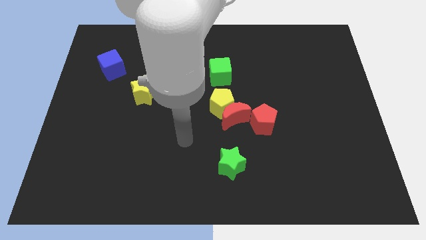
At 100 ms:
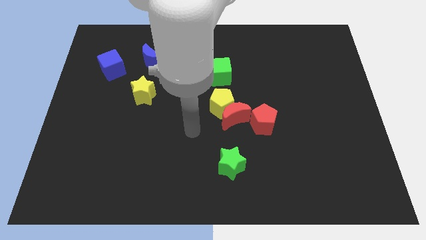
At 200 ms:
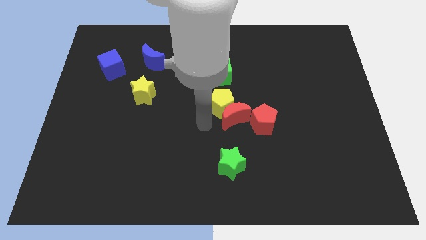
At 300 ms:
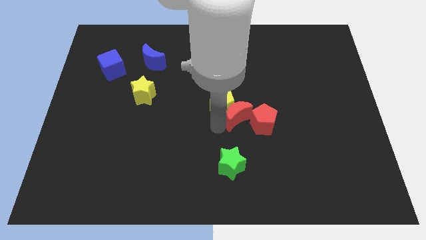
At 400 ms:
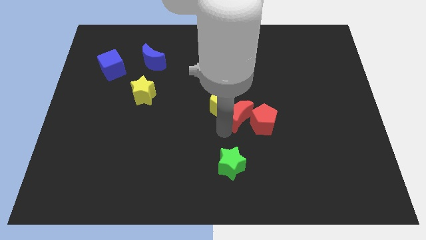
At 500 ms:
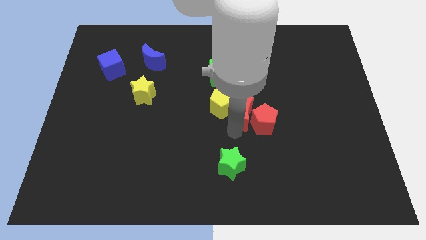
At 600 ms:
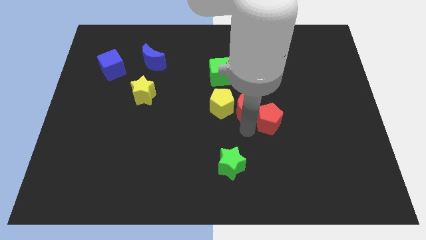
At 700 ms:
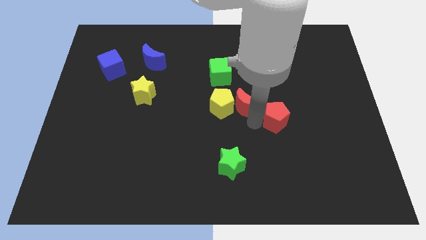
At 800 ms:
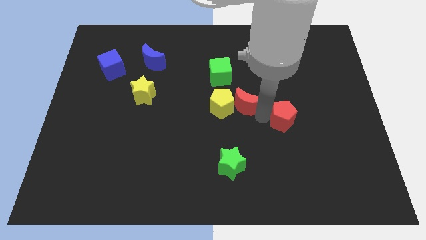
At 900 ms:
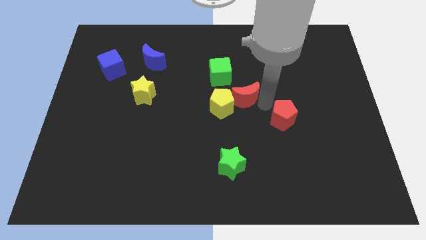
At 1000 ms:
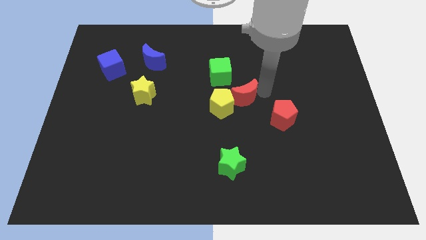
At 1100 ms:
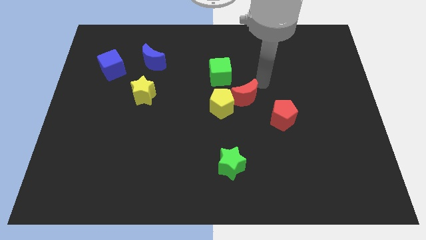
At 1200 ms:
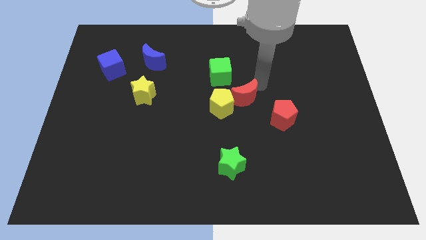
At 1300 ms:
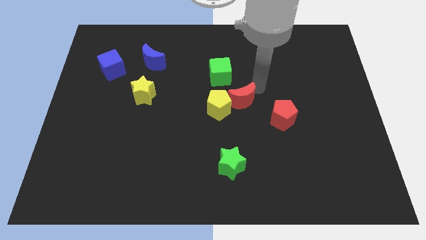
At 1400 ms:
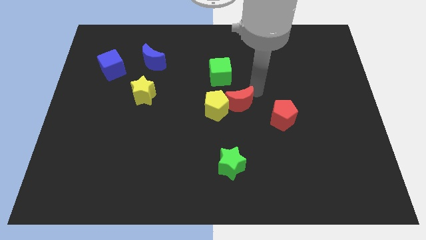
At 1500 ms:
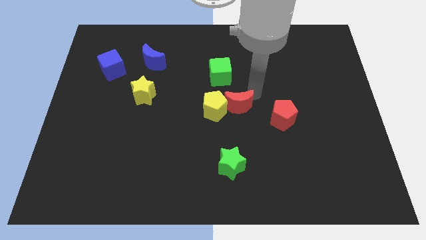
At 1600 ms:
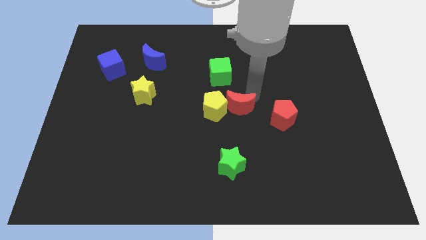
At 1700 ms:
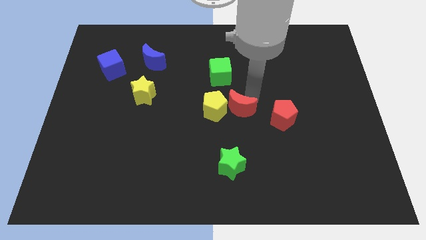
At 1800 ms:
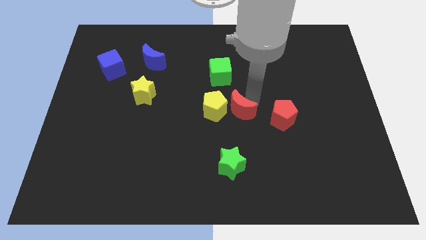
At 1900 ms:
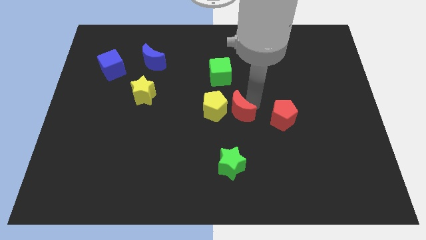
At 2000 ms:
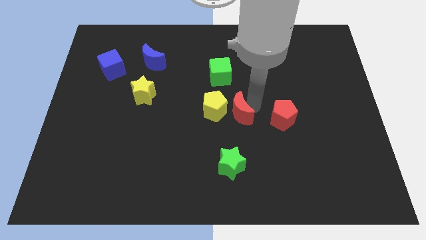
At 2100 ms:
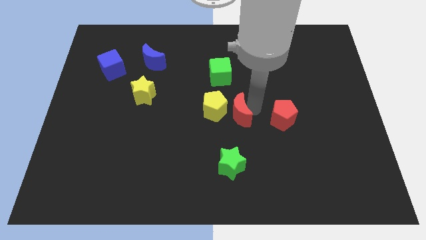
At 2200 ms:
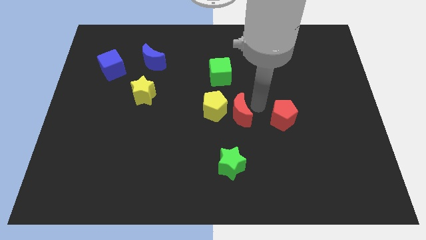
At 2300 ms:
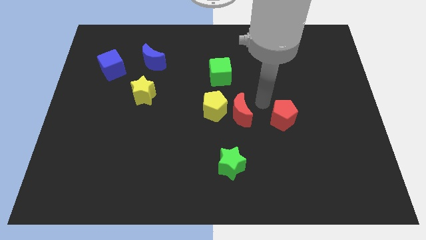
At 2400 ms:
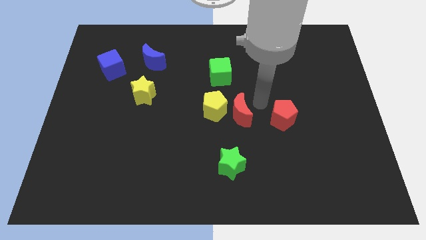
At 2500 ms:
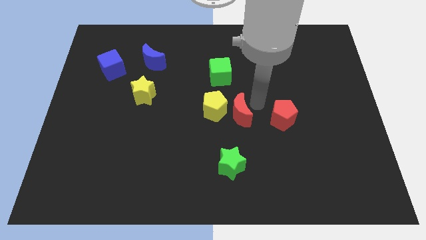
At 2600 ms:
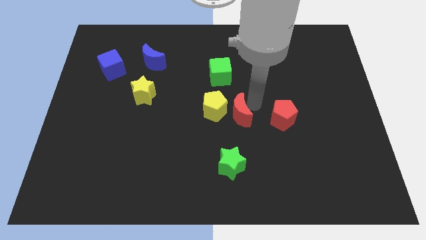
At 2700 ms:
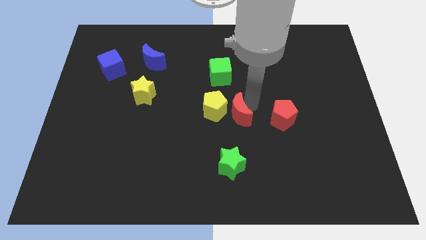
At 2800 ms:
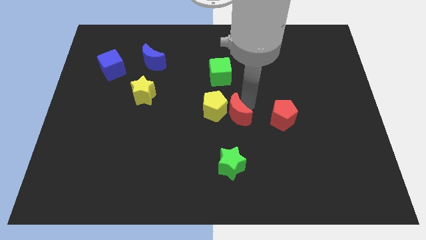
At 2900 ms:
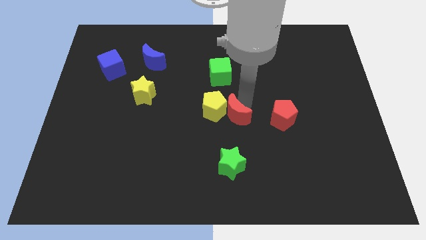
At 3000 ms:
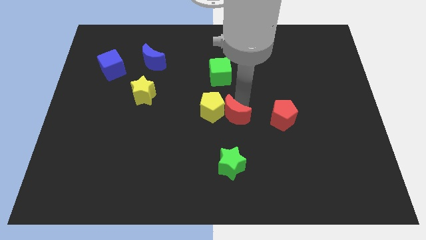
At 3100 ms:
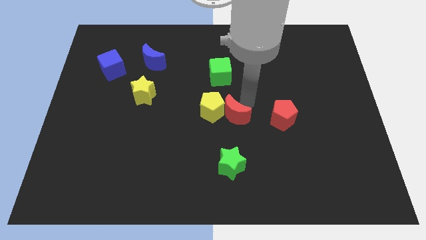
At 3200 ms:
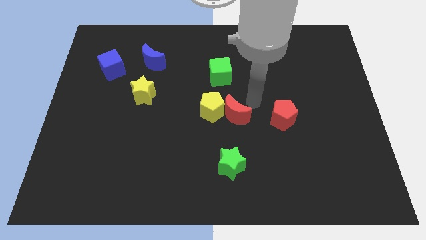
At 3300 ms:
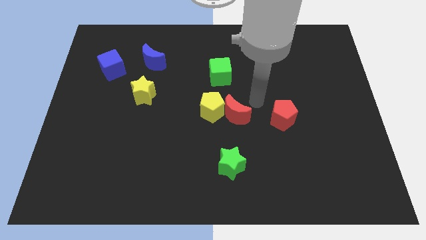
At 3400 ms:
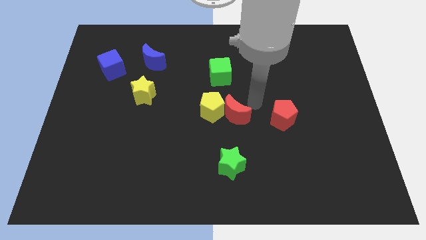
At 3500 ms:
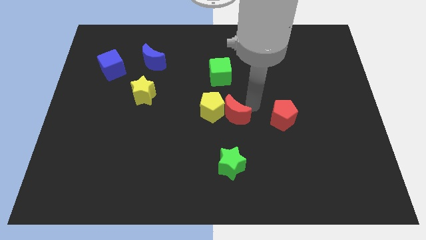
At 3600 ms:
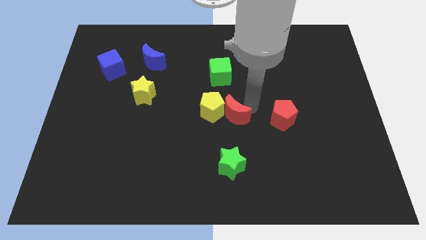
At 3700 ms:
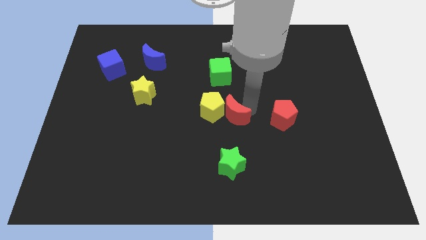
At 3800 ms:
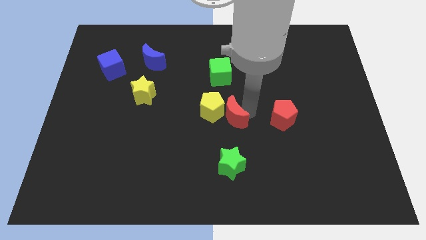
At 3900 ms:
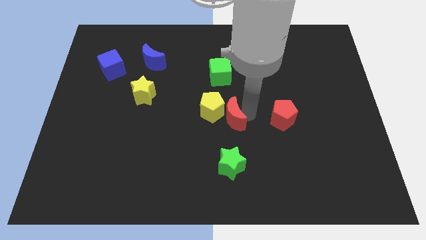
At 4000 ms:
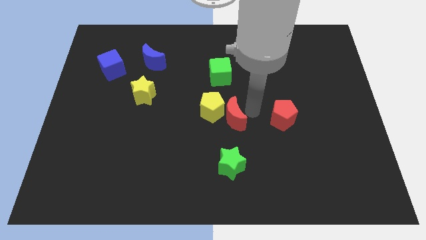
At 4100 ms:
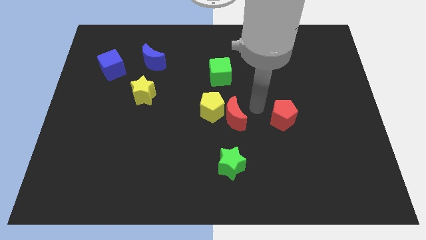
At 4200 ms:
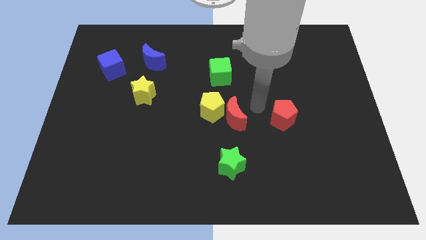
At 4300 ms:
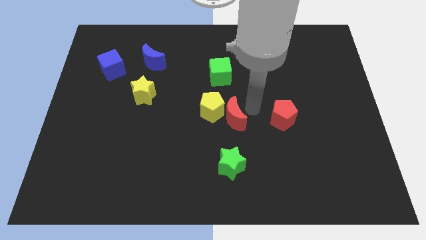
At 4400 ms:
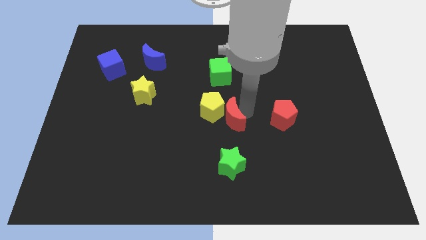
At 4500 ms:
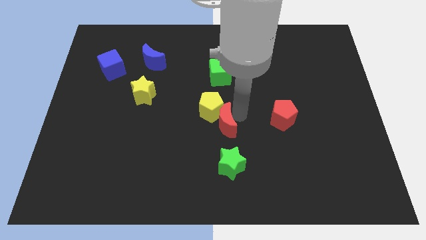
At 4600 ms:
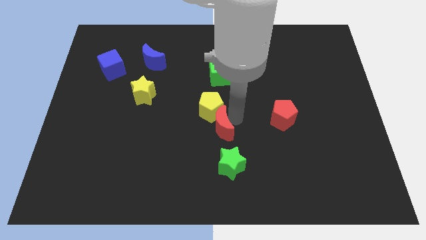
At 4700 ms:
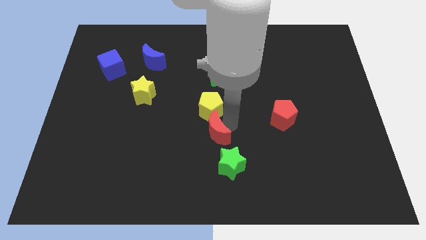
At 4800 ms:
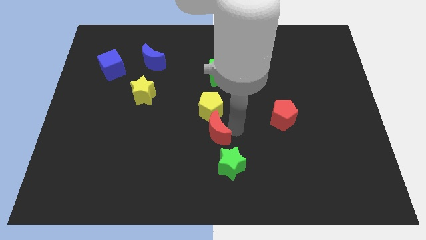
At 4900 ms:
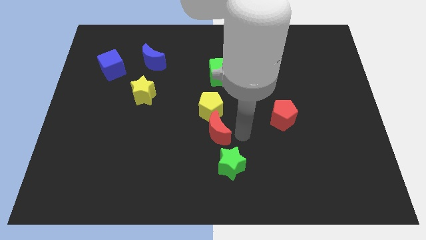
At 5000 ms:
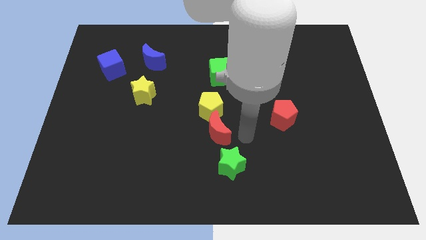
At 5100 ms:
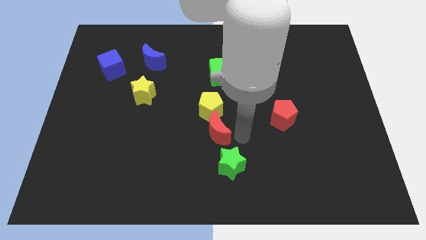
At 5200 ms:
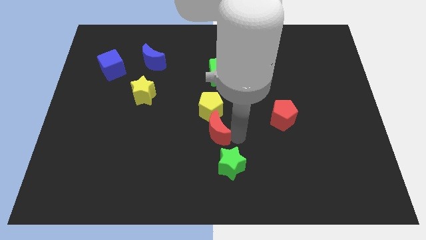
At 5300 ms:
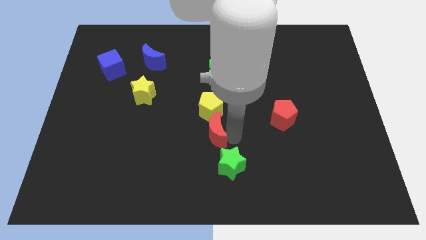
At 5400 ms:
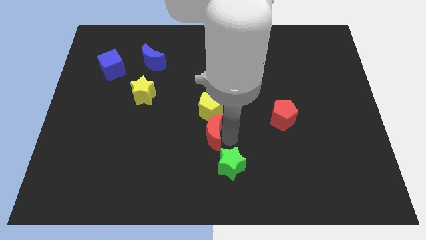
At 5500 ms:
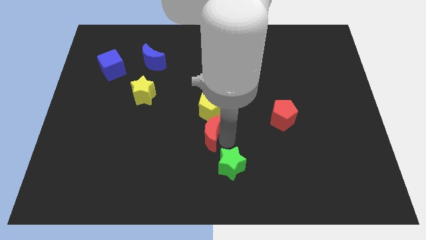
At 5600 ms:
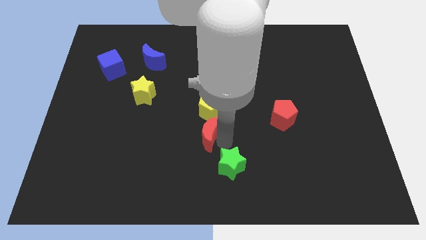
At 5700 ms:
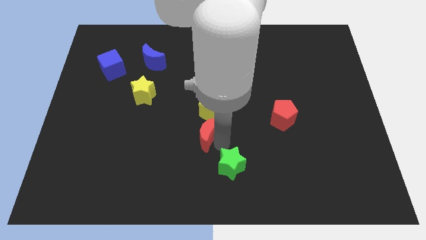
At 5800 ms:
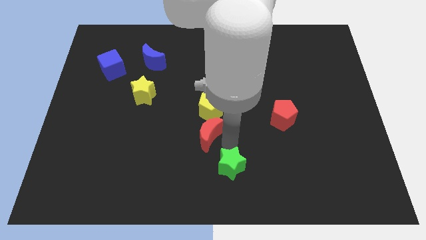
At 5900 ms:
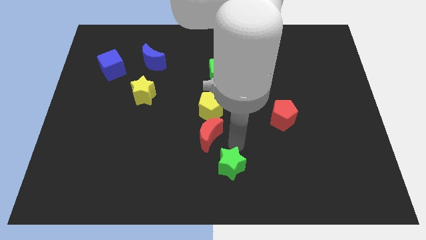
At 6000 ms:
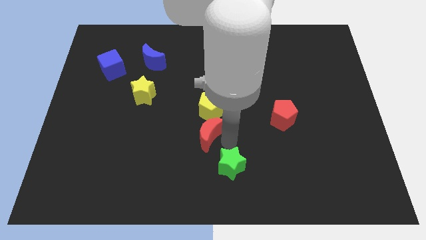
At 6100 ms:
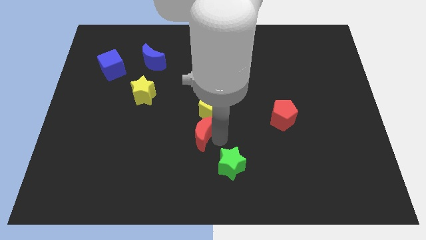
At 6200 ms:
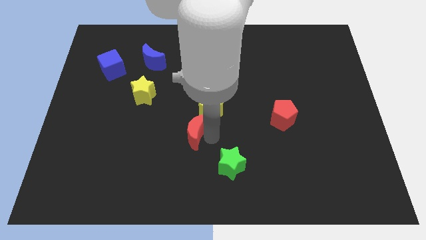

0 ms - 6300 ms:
slide the red moon to the left a little

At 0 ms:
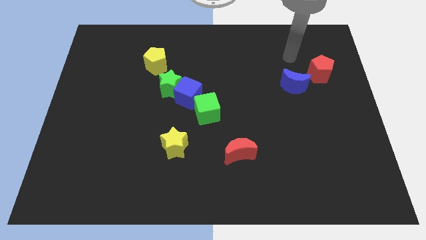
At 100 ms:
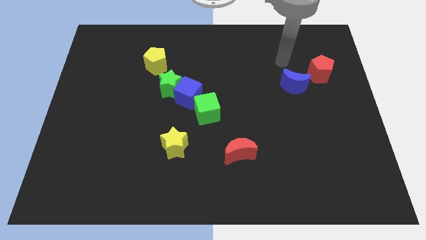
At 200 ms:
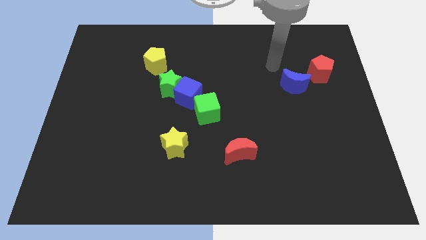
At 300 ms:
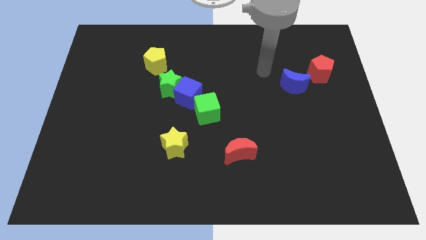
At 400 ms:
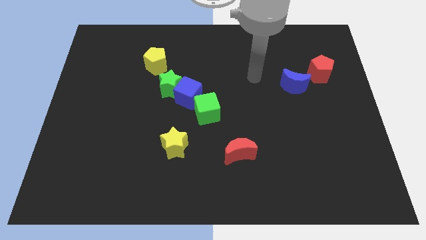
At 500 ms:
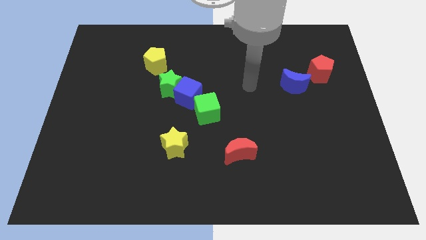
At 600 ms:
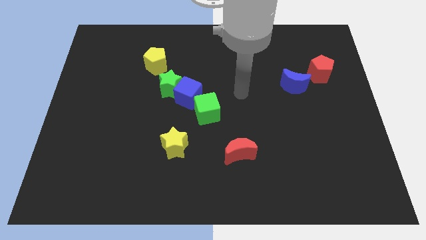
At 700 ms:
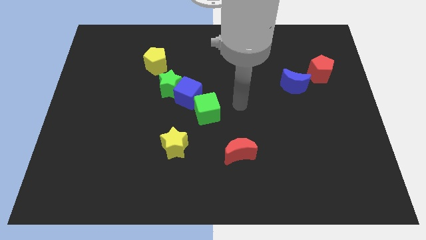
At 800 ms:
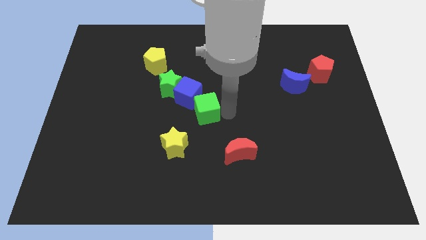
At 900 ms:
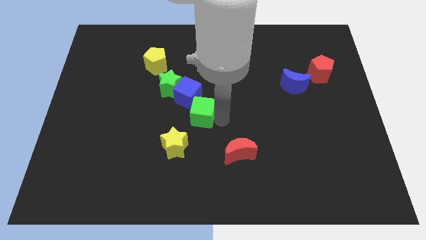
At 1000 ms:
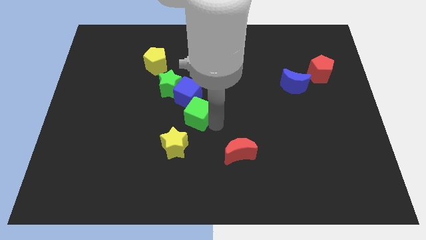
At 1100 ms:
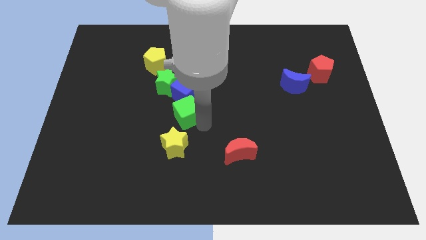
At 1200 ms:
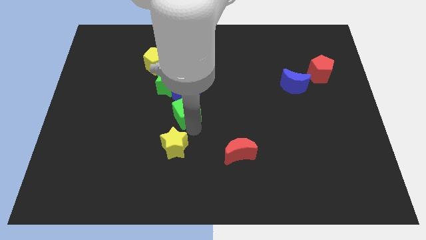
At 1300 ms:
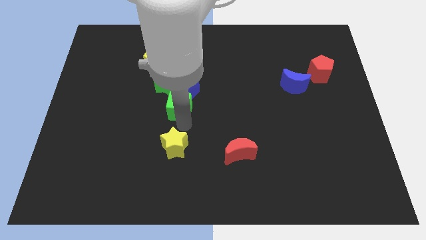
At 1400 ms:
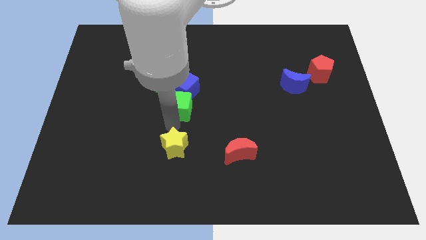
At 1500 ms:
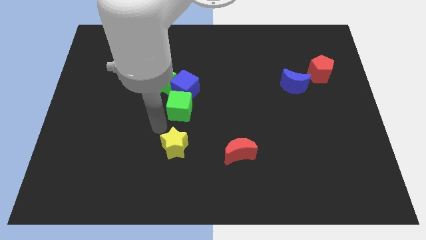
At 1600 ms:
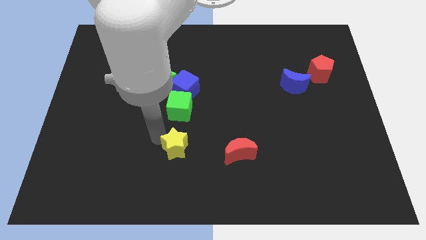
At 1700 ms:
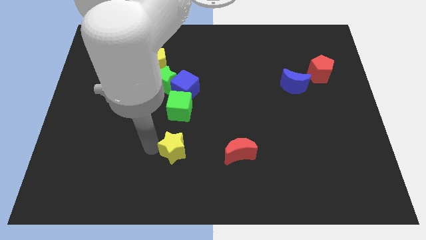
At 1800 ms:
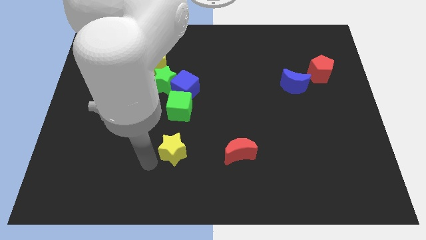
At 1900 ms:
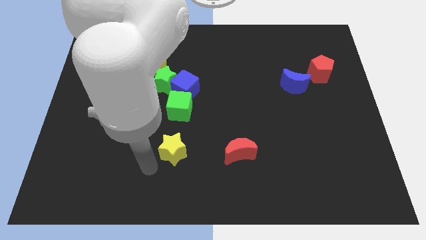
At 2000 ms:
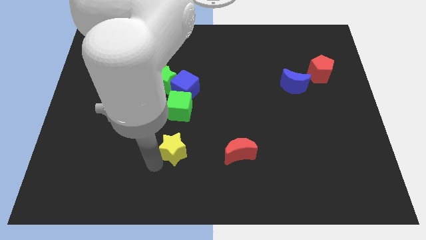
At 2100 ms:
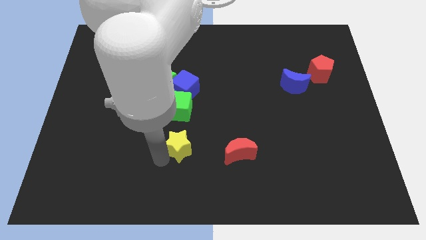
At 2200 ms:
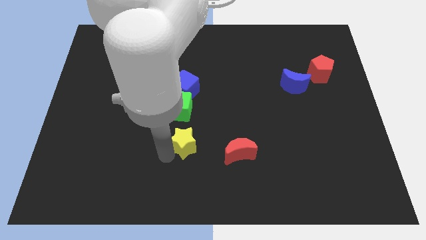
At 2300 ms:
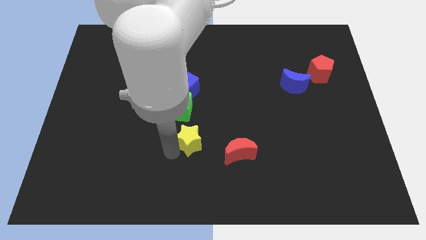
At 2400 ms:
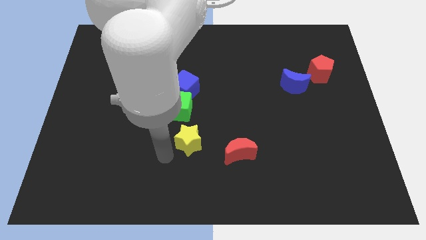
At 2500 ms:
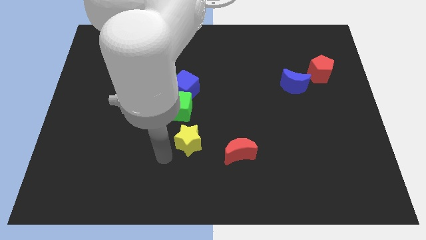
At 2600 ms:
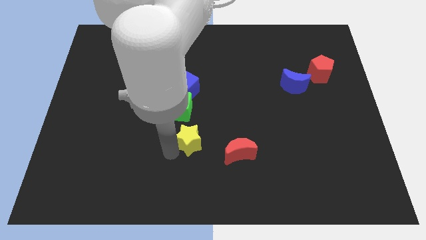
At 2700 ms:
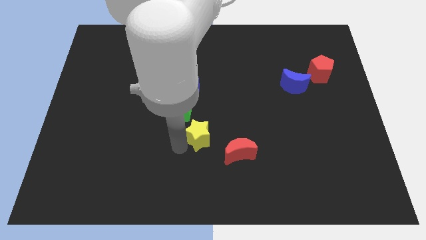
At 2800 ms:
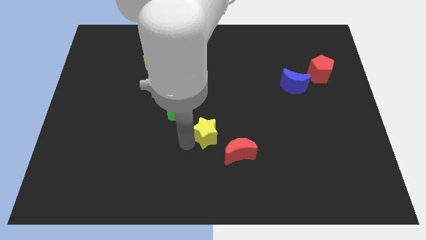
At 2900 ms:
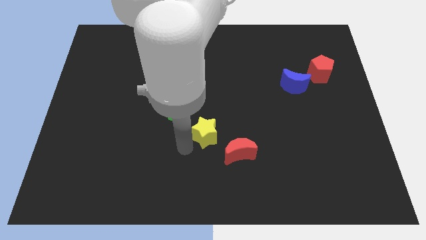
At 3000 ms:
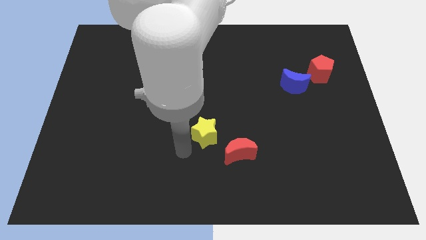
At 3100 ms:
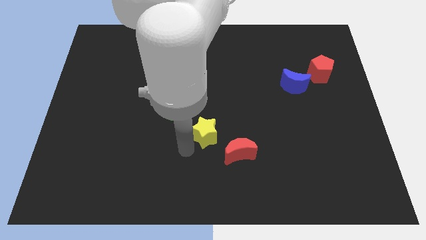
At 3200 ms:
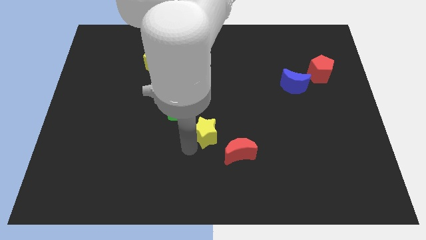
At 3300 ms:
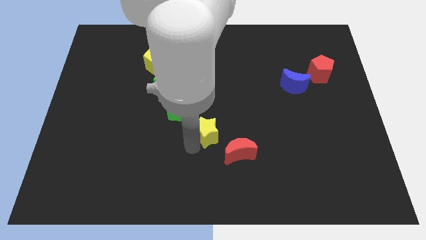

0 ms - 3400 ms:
move the yellow star slightly up and then right
